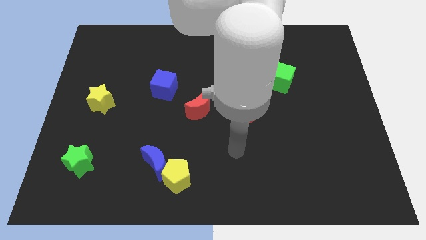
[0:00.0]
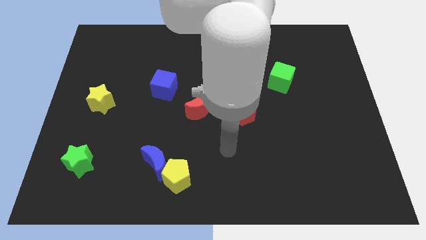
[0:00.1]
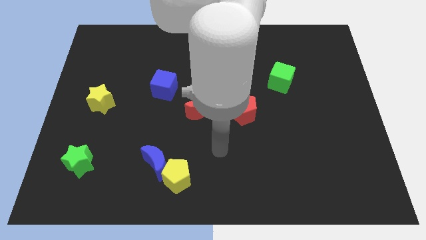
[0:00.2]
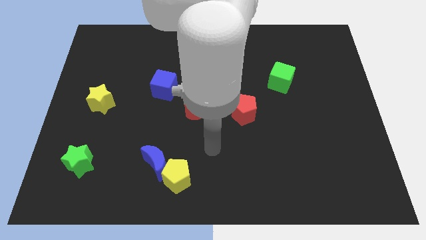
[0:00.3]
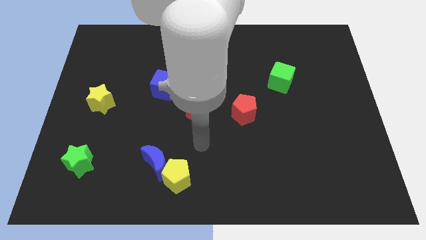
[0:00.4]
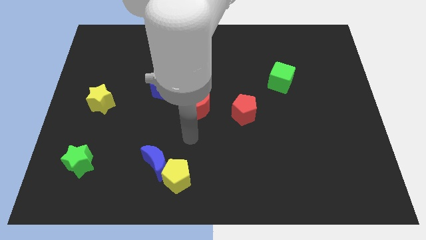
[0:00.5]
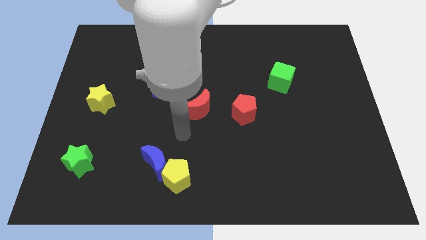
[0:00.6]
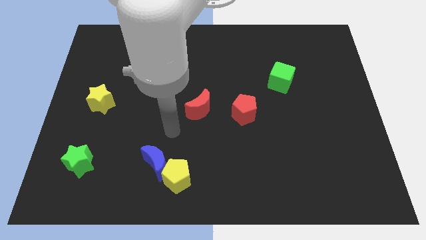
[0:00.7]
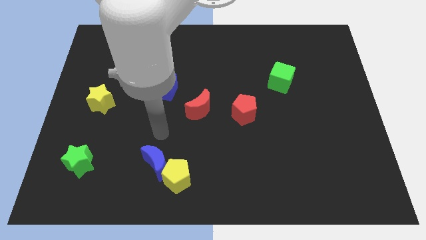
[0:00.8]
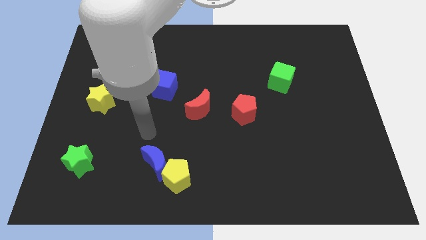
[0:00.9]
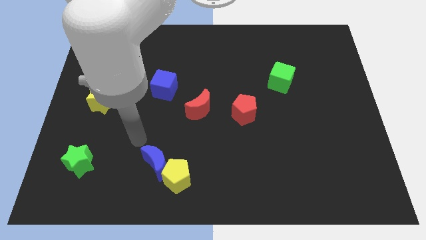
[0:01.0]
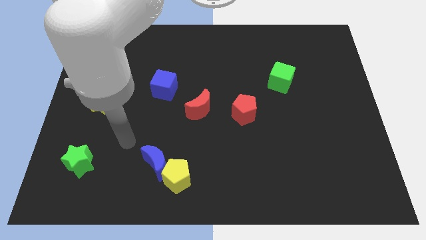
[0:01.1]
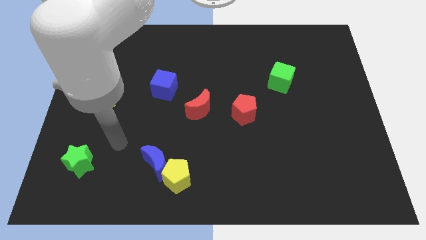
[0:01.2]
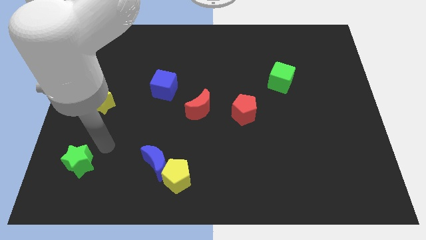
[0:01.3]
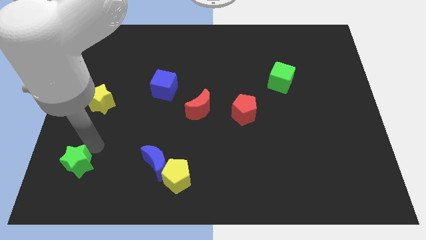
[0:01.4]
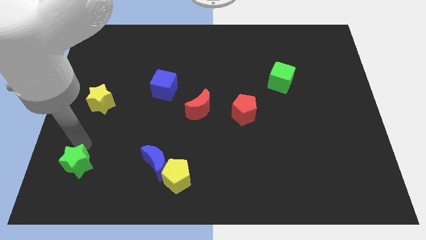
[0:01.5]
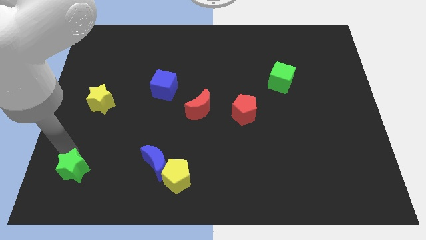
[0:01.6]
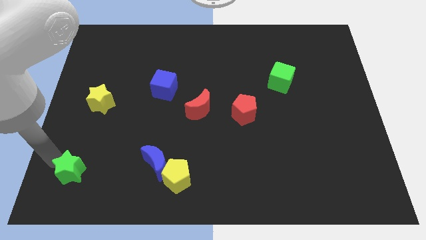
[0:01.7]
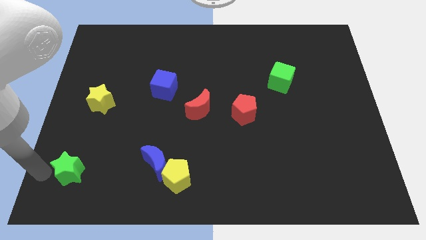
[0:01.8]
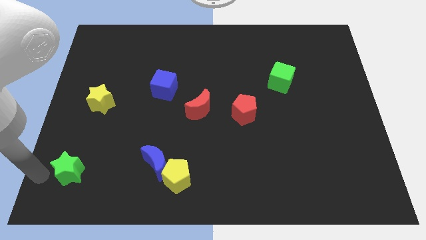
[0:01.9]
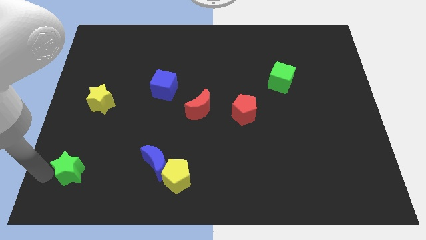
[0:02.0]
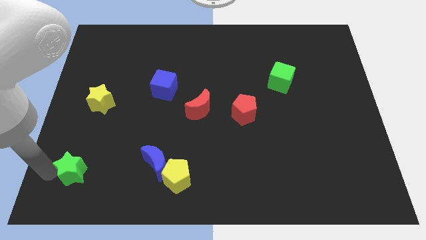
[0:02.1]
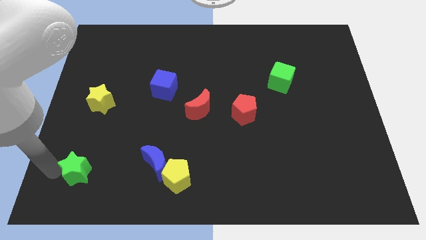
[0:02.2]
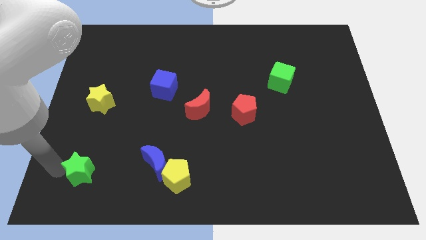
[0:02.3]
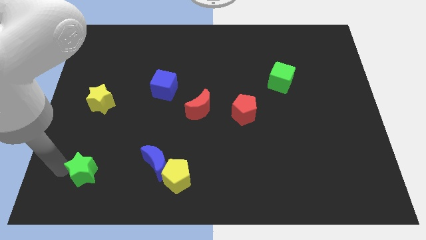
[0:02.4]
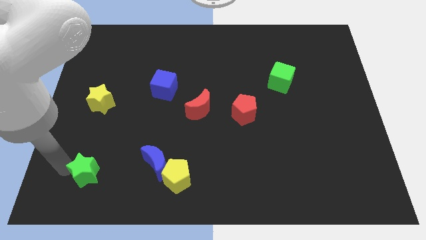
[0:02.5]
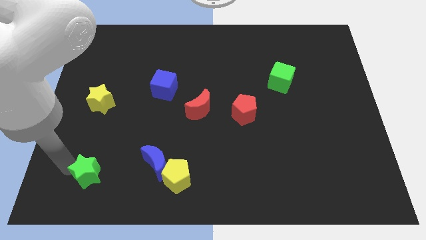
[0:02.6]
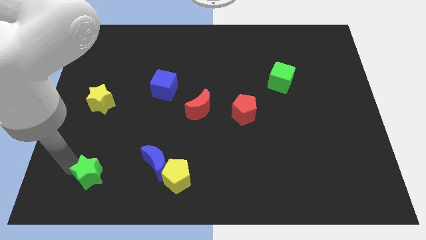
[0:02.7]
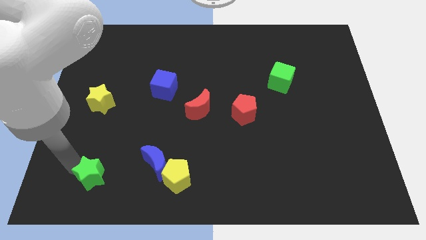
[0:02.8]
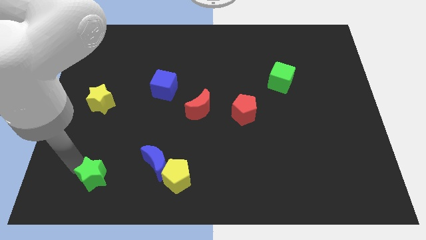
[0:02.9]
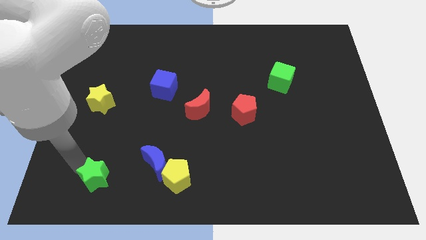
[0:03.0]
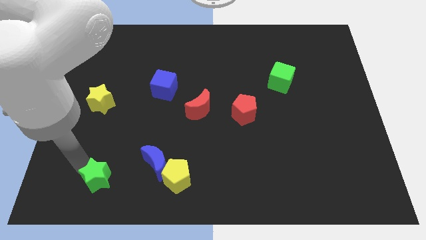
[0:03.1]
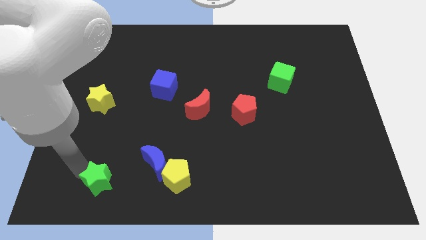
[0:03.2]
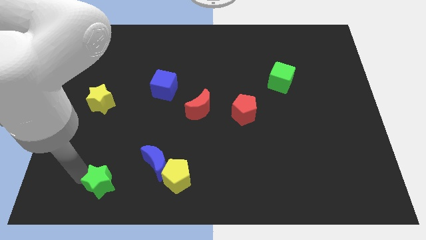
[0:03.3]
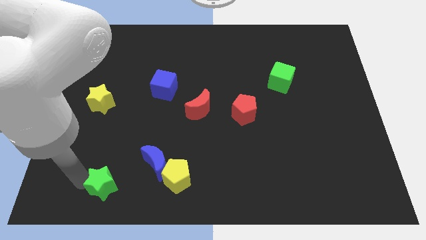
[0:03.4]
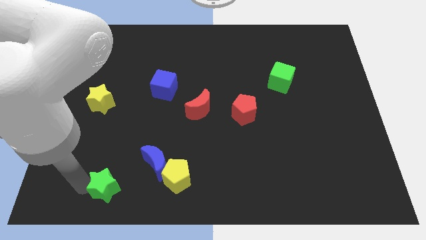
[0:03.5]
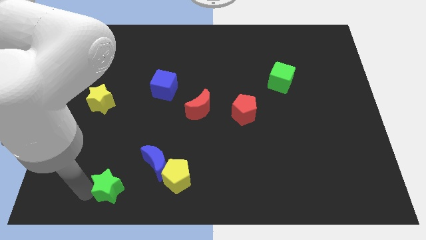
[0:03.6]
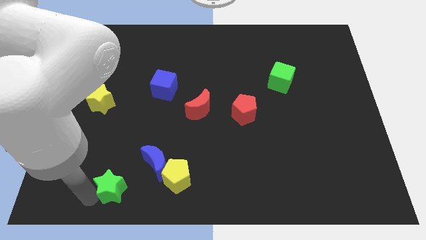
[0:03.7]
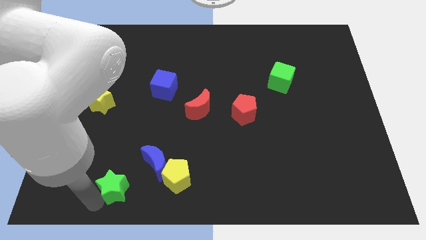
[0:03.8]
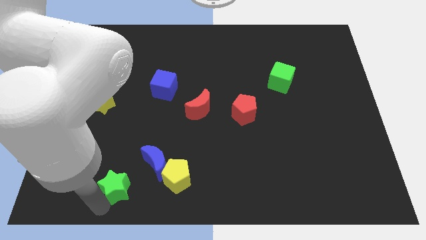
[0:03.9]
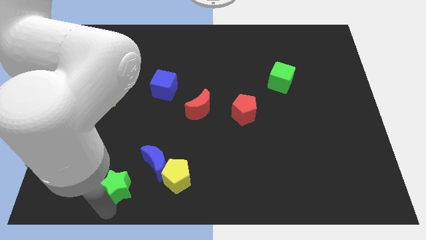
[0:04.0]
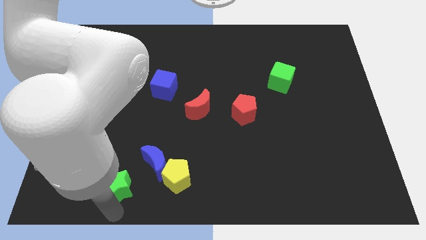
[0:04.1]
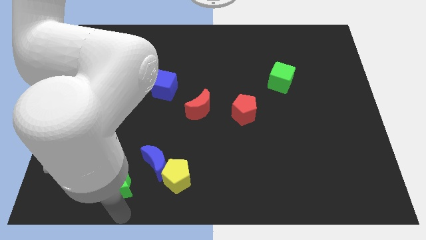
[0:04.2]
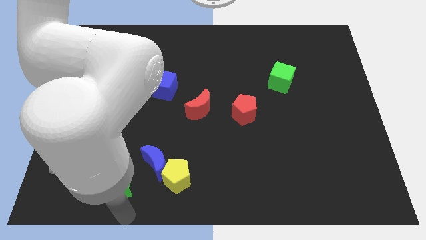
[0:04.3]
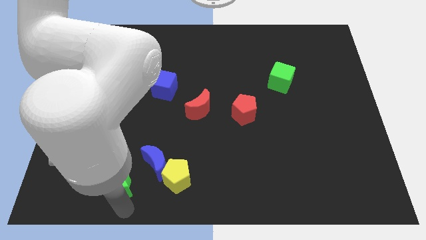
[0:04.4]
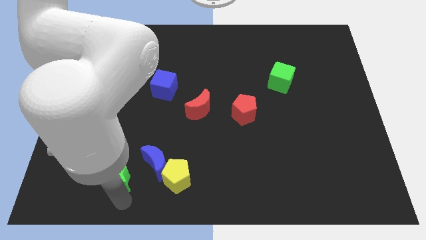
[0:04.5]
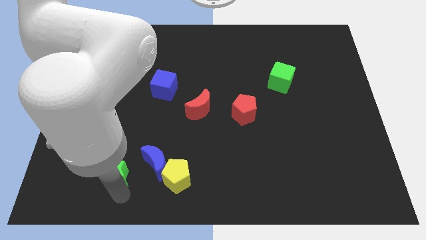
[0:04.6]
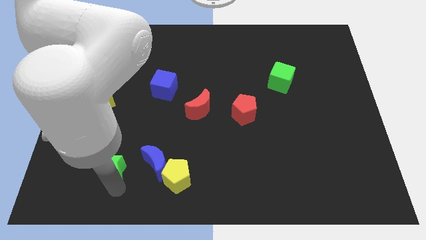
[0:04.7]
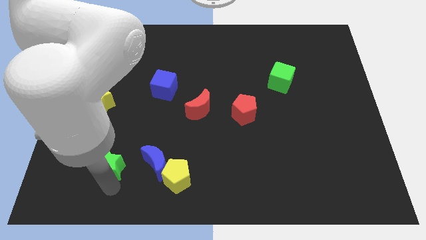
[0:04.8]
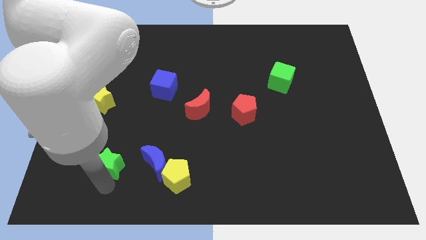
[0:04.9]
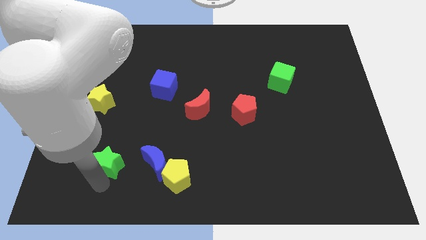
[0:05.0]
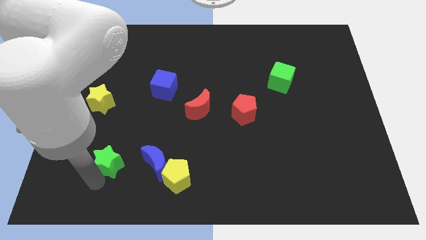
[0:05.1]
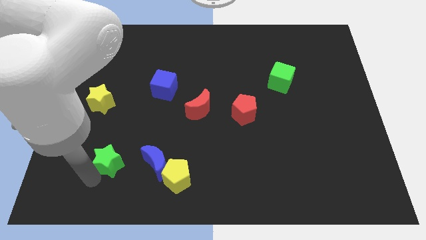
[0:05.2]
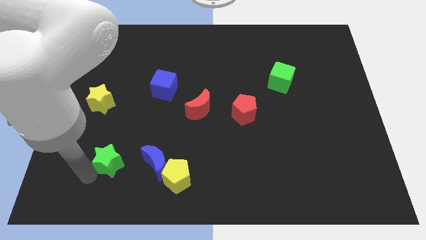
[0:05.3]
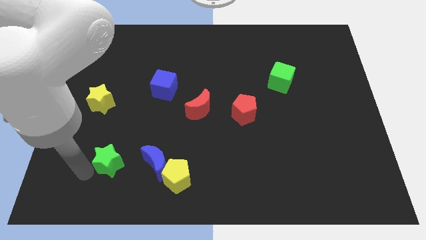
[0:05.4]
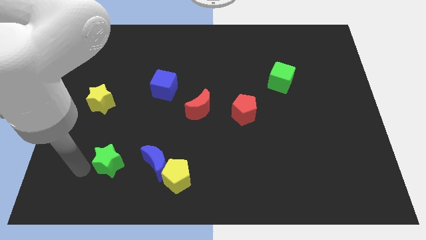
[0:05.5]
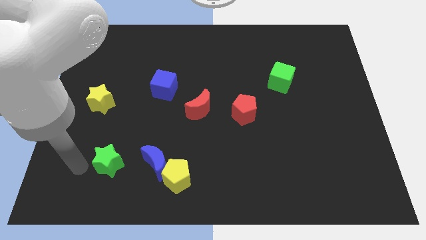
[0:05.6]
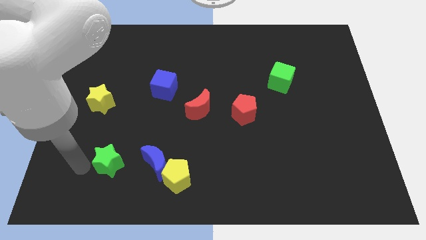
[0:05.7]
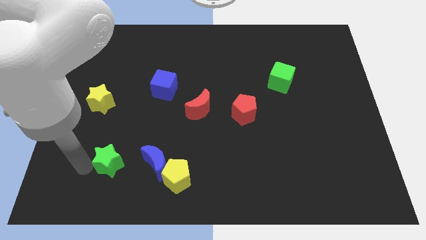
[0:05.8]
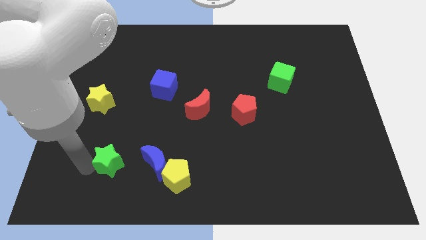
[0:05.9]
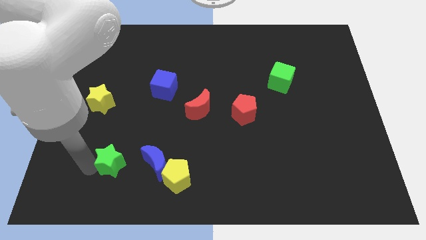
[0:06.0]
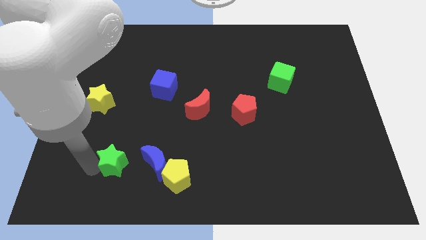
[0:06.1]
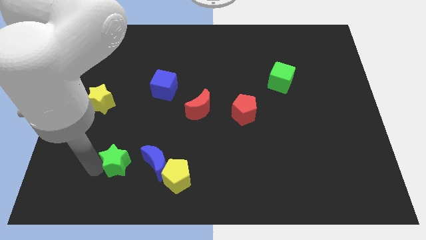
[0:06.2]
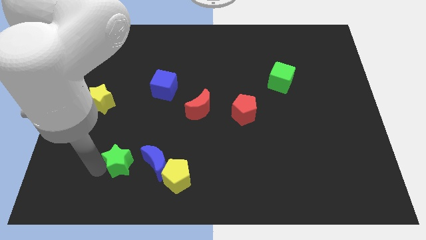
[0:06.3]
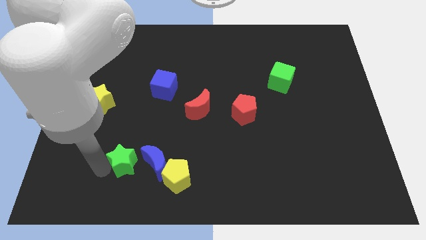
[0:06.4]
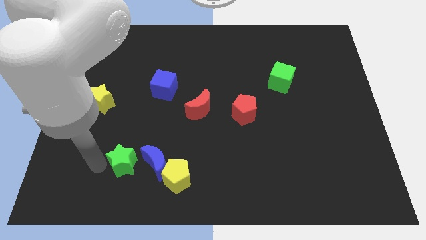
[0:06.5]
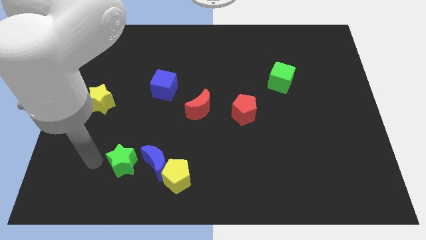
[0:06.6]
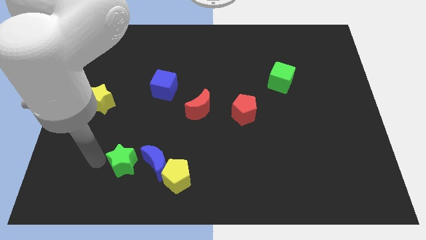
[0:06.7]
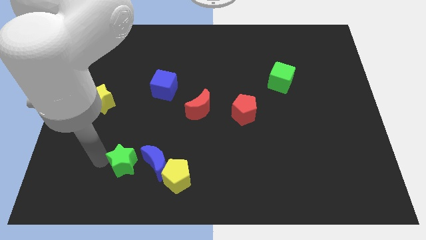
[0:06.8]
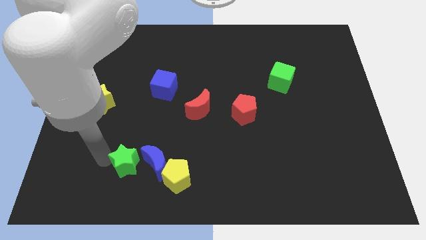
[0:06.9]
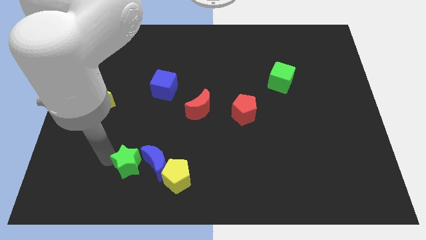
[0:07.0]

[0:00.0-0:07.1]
put the green star to the blue moon
